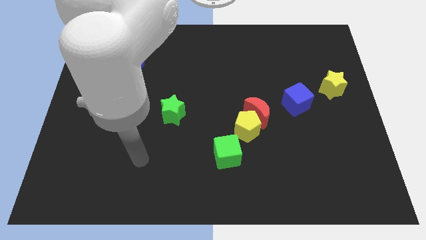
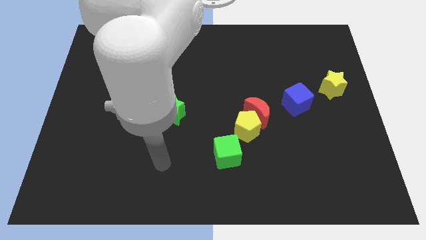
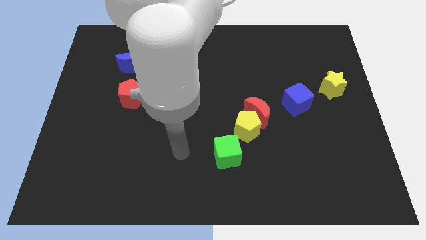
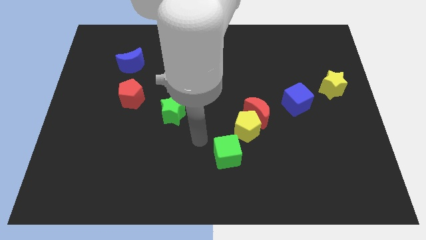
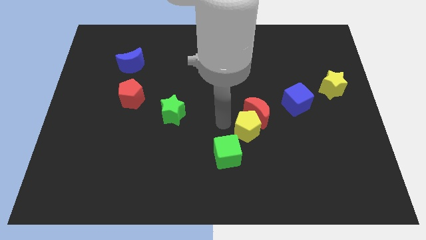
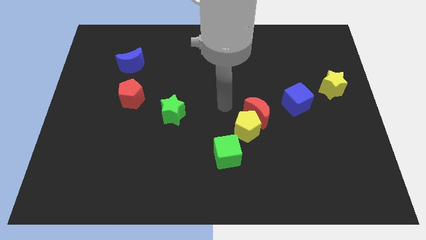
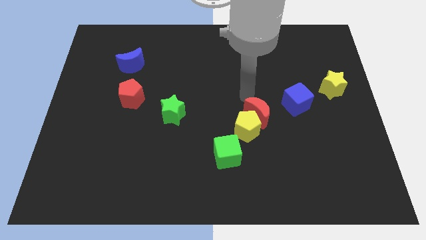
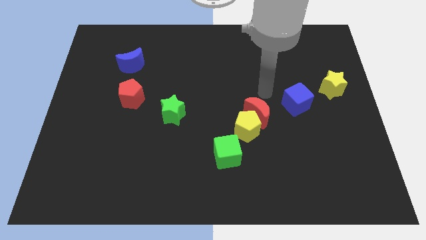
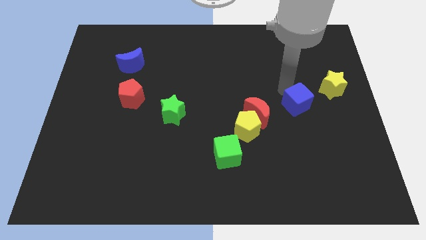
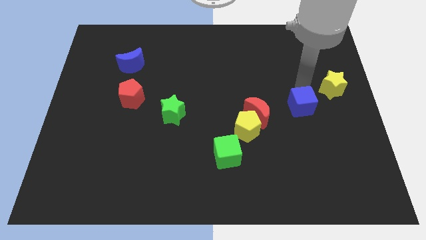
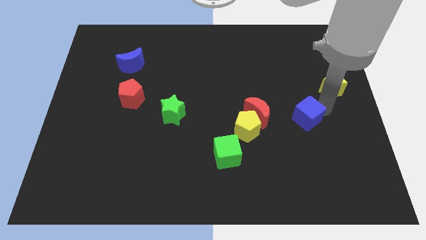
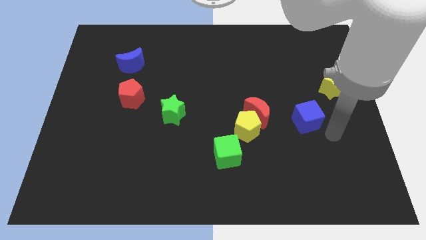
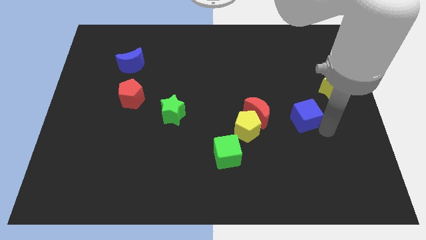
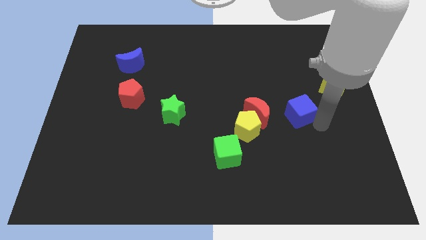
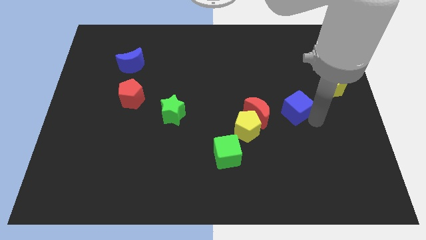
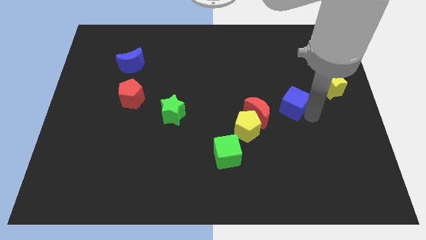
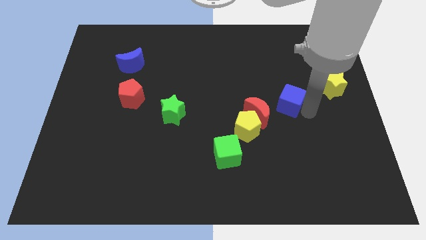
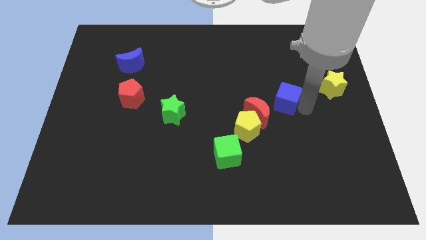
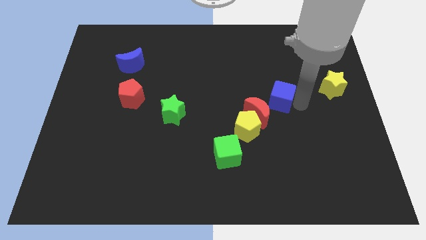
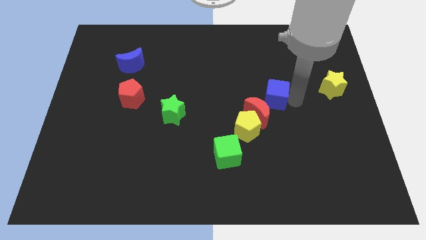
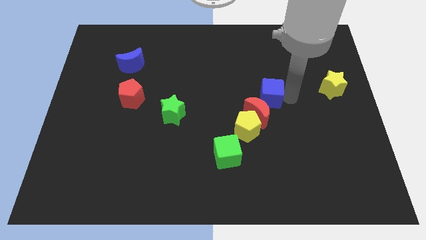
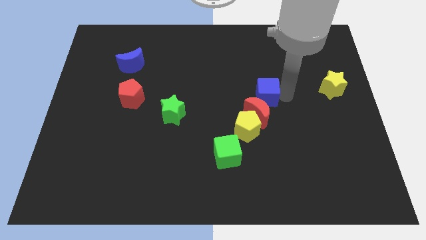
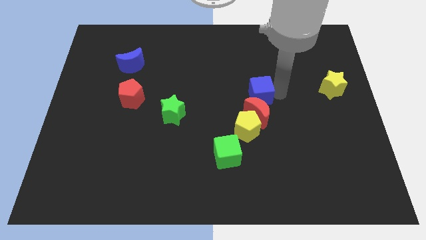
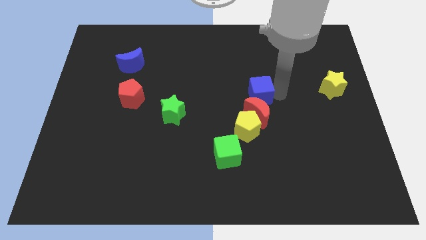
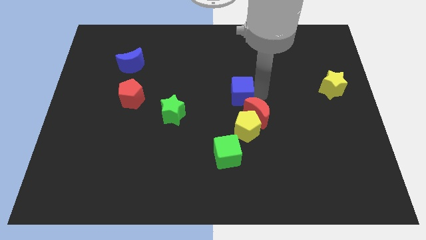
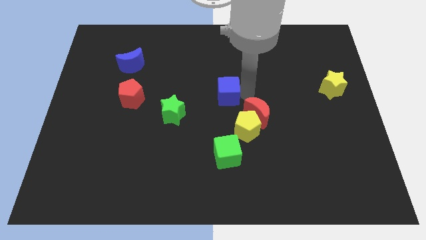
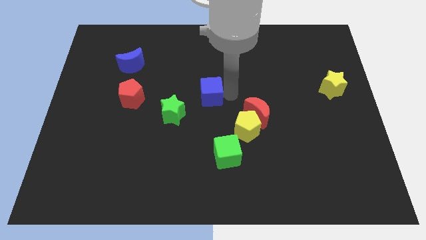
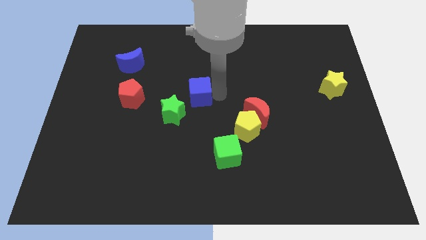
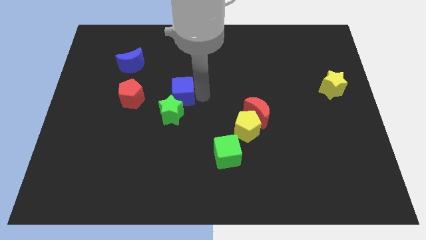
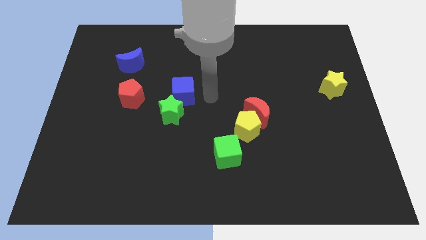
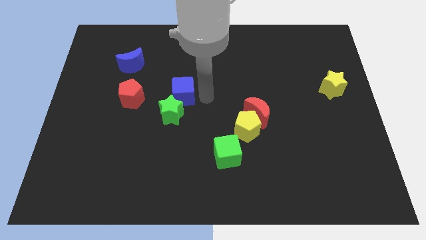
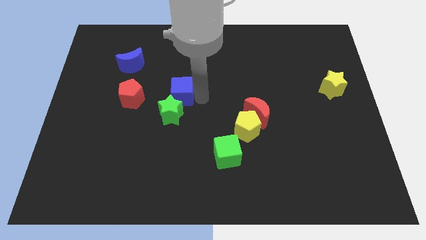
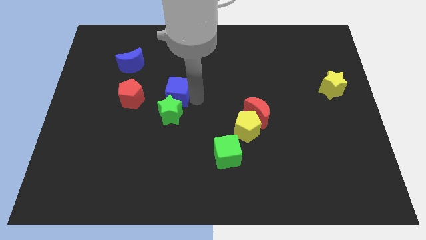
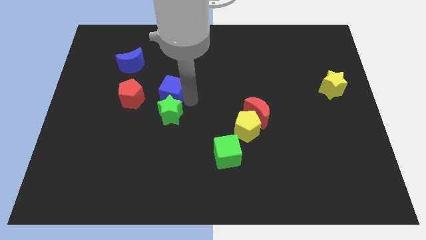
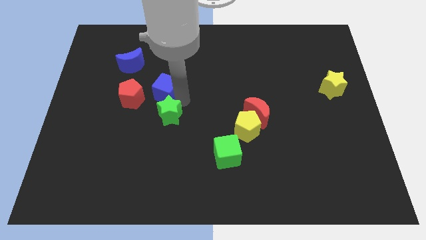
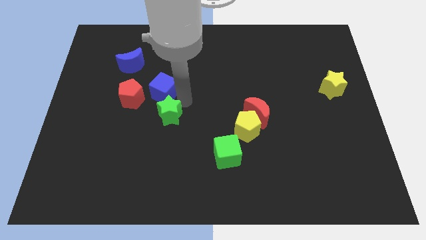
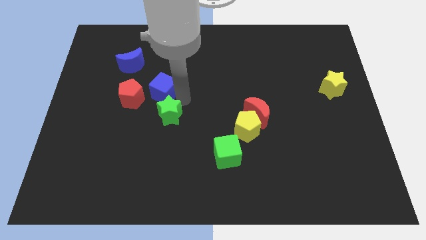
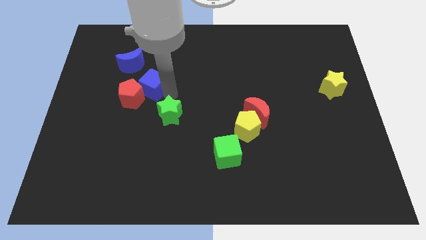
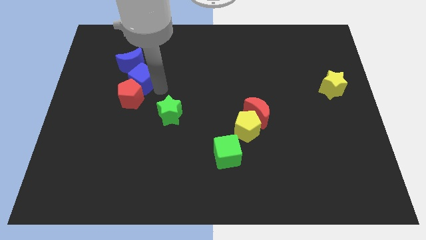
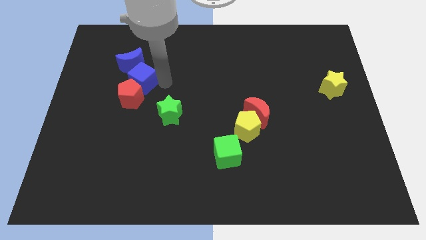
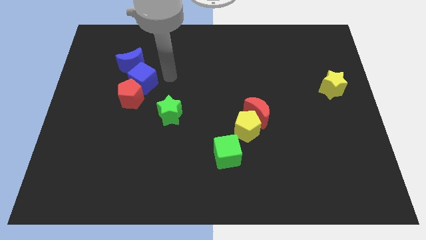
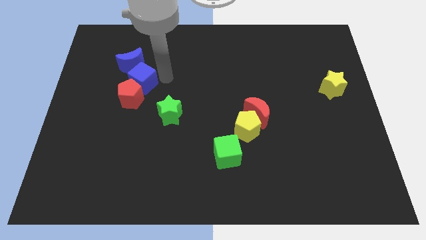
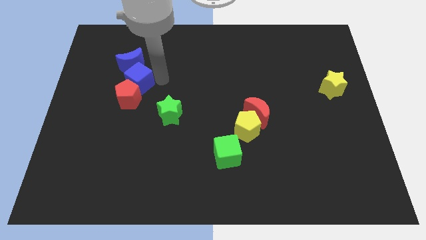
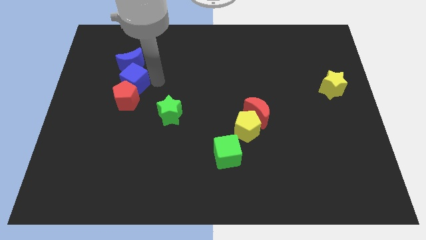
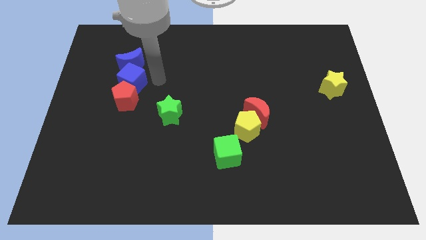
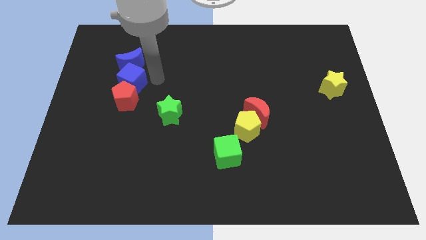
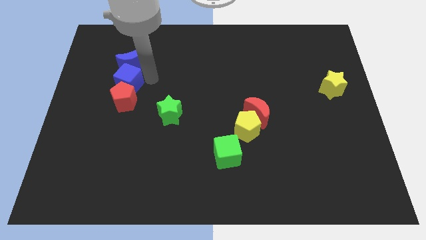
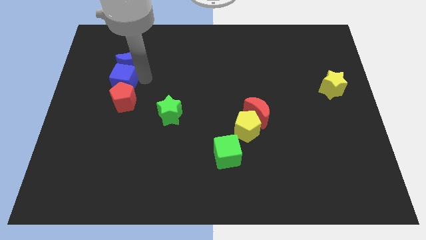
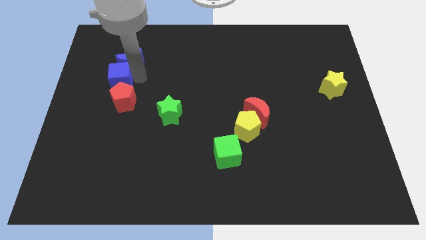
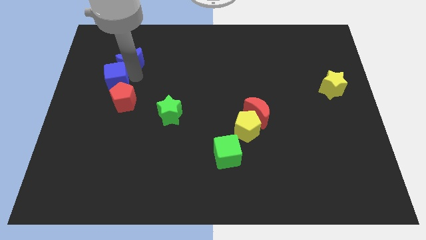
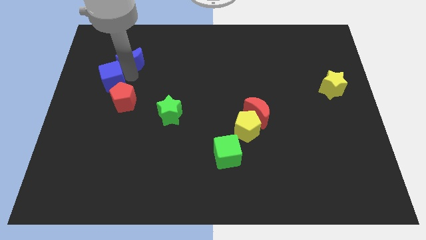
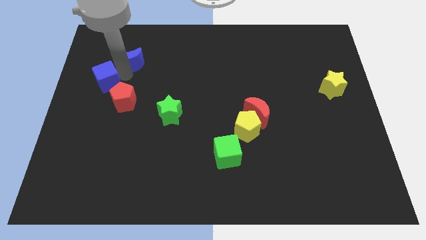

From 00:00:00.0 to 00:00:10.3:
put the blue cube to the center left

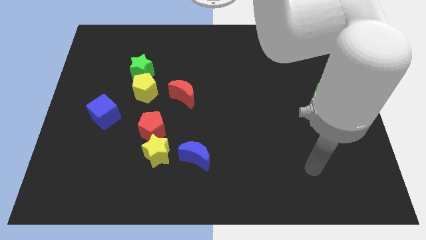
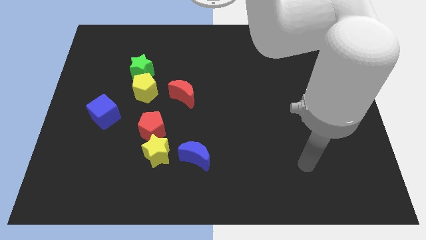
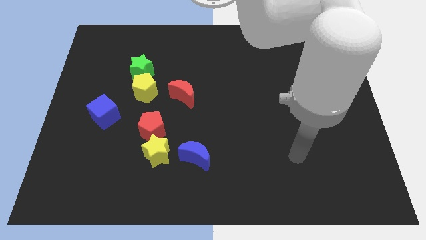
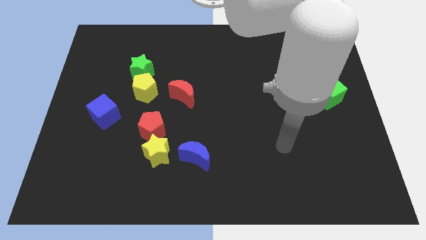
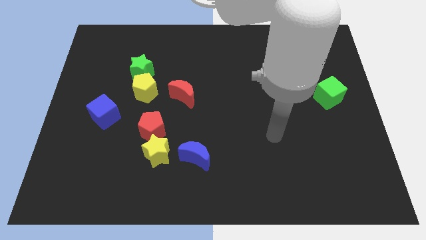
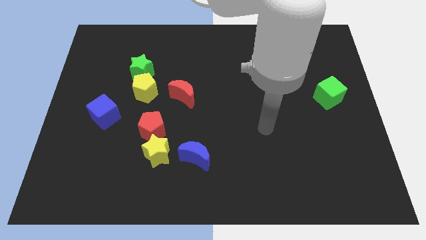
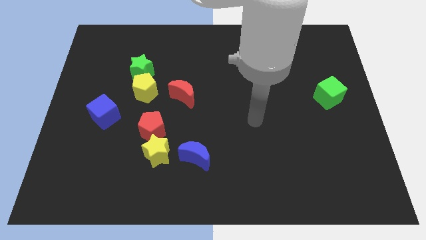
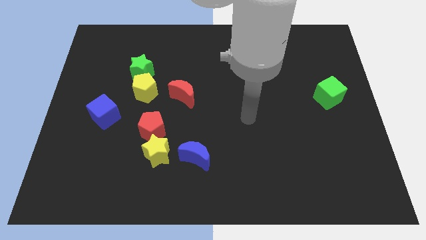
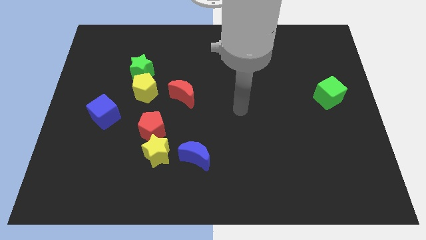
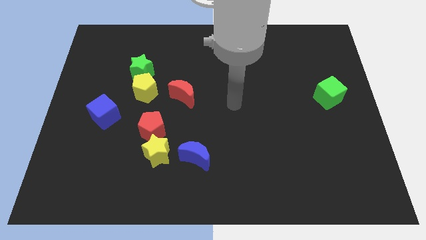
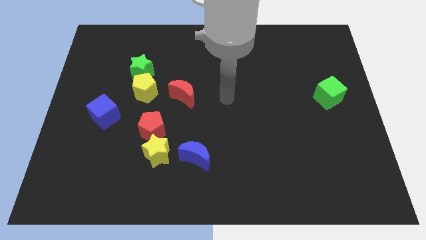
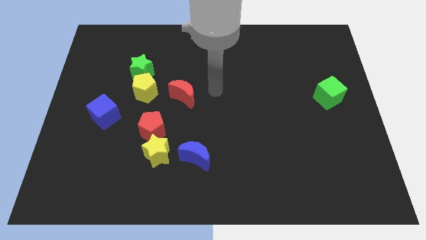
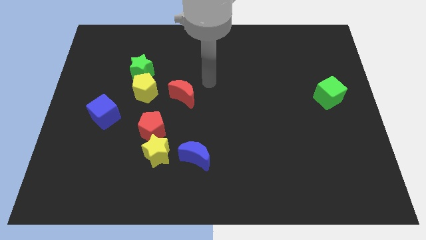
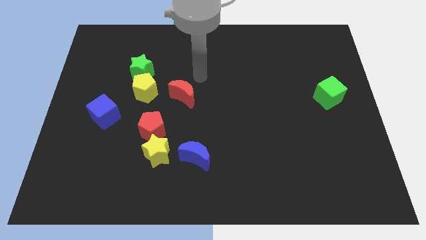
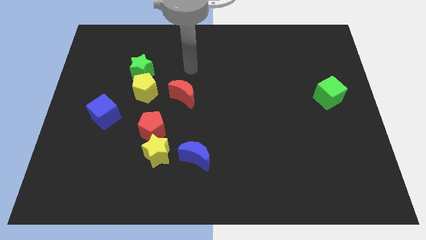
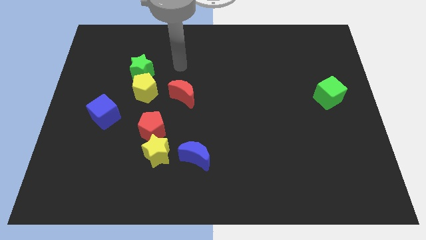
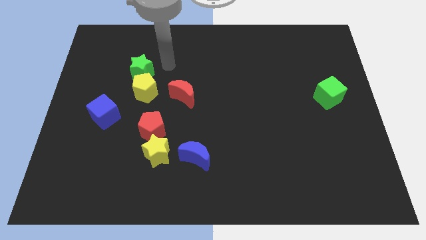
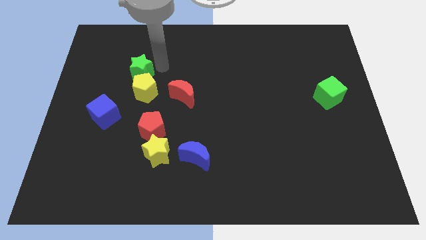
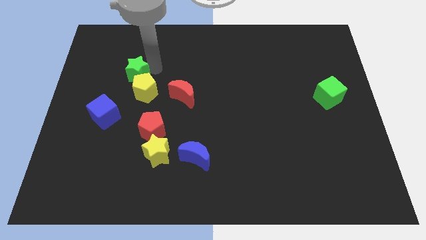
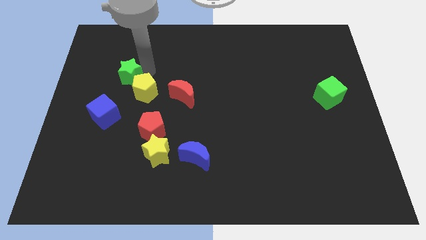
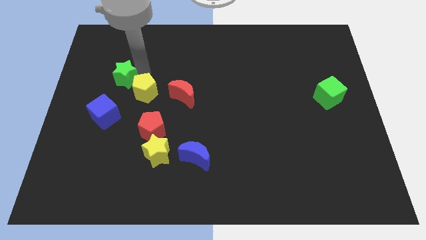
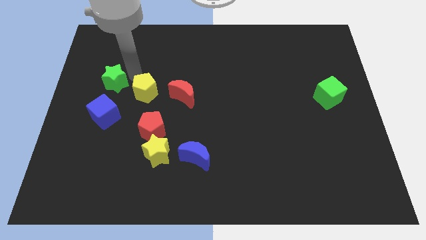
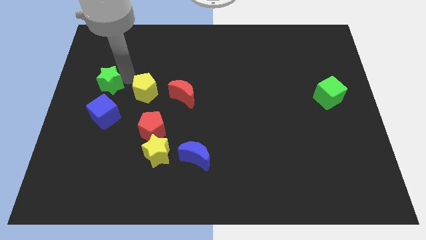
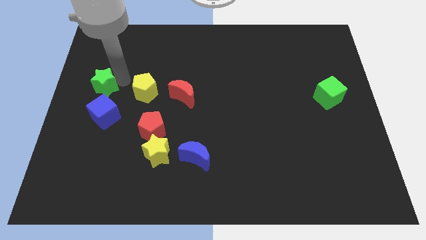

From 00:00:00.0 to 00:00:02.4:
put the green star to the left side of the board
